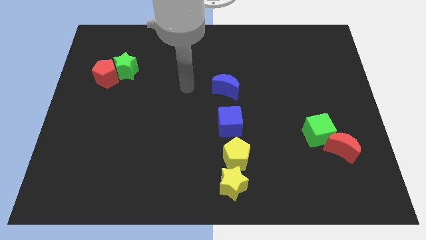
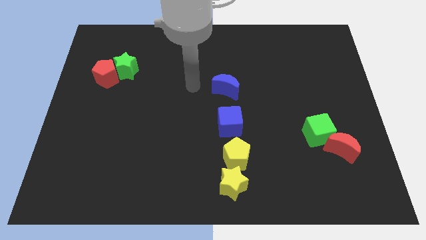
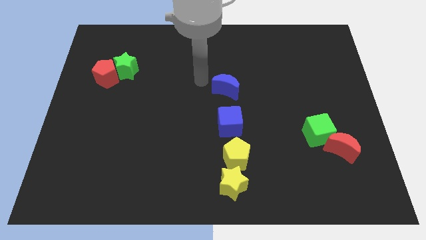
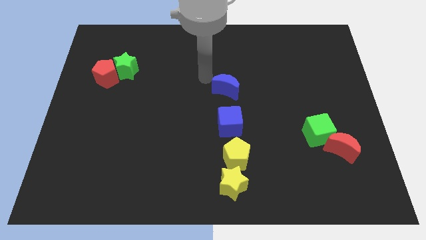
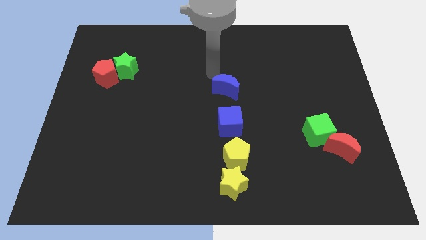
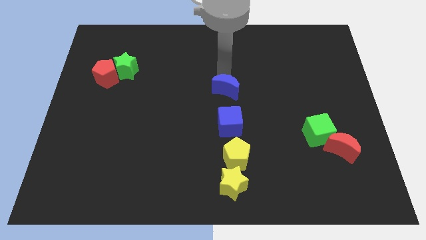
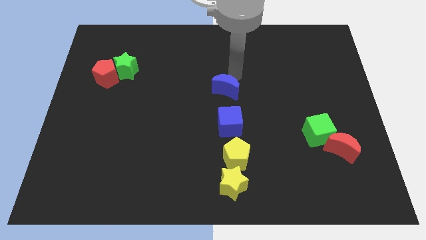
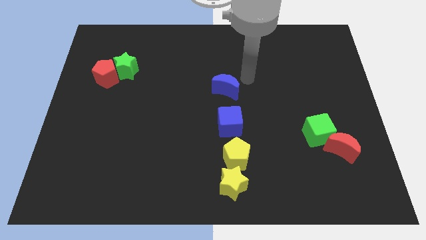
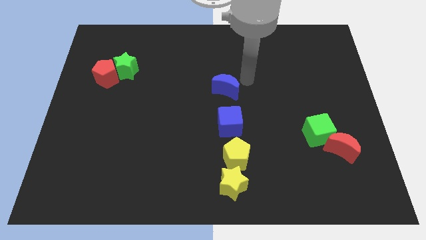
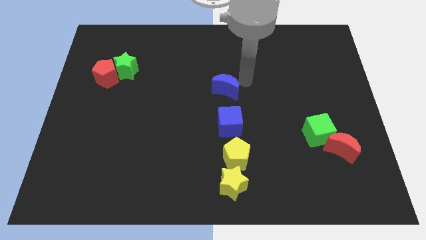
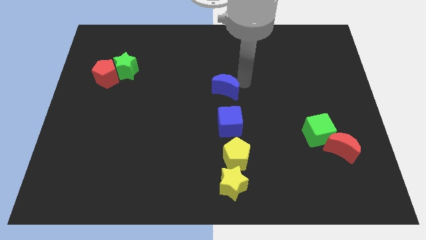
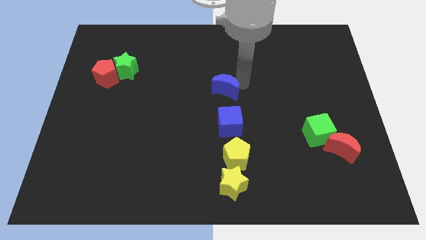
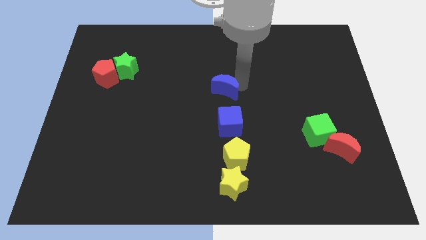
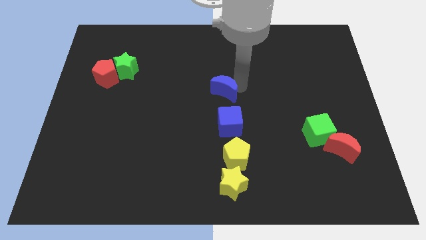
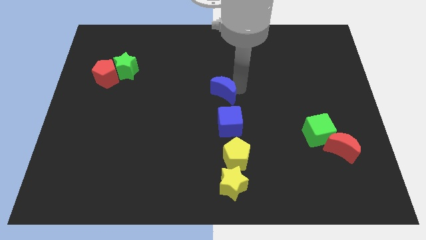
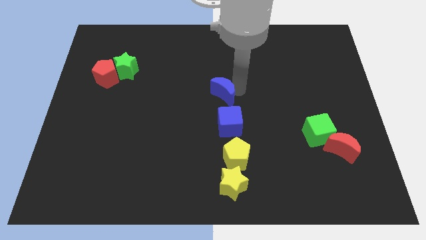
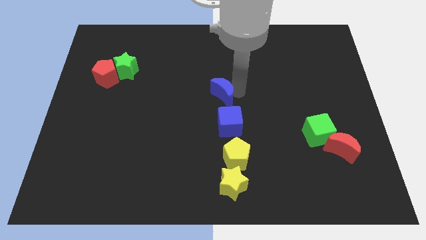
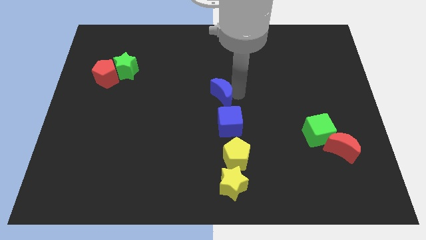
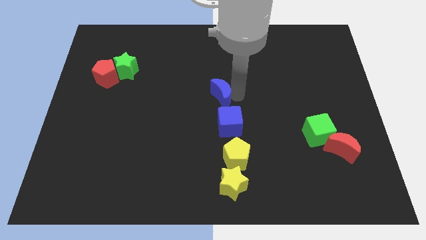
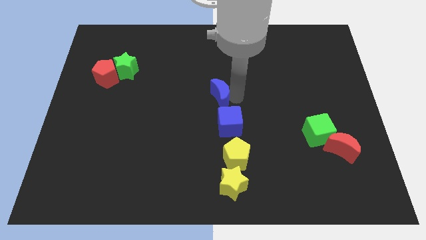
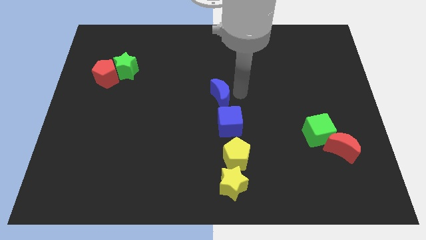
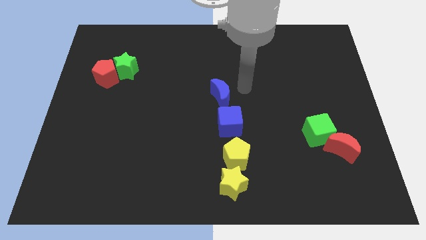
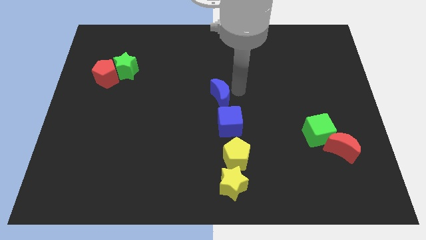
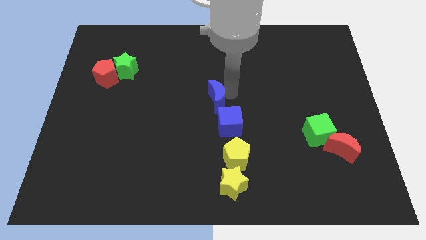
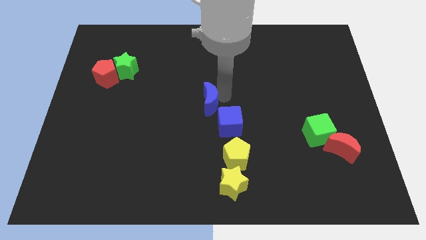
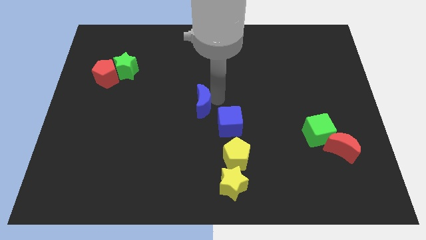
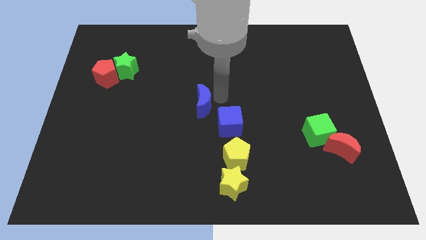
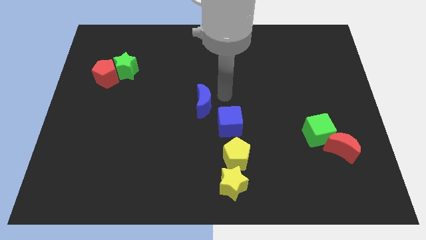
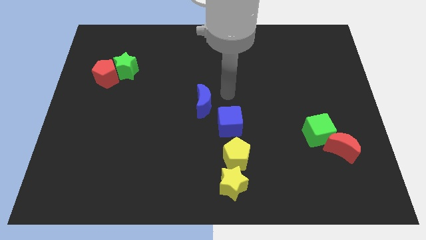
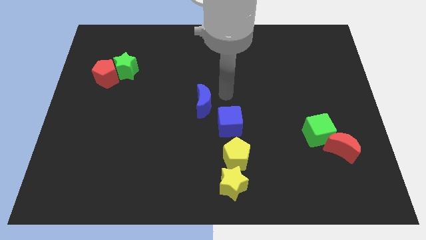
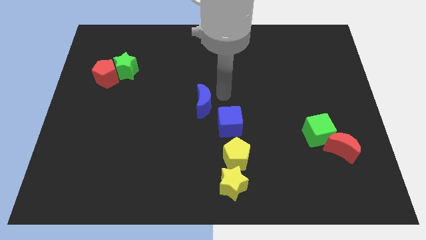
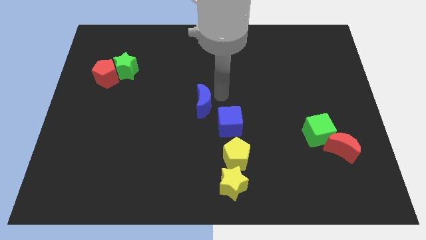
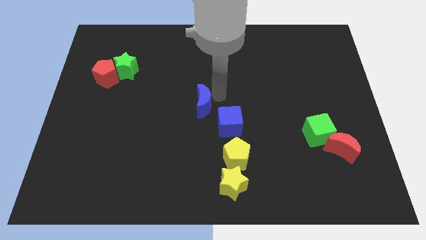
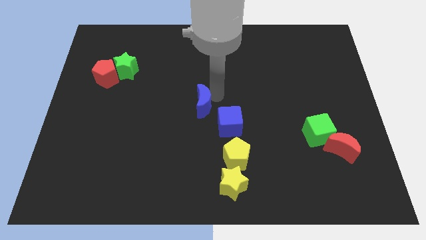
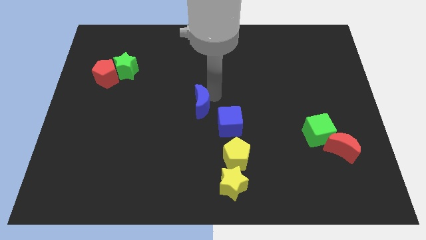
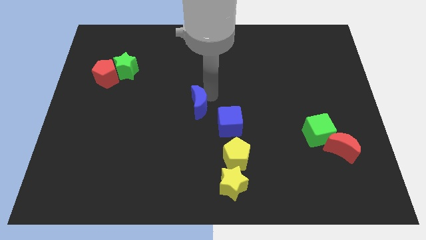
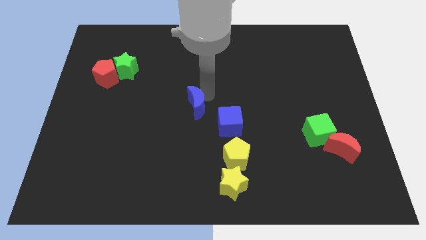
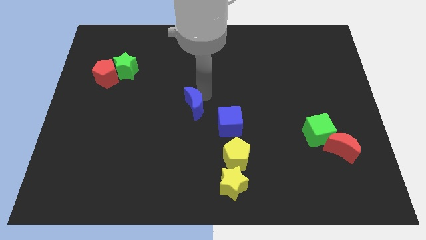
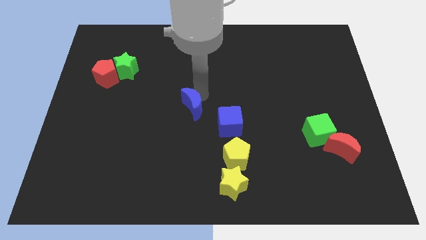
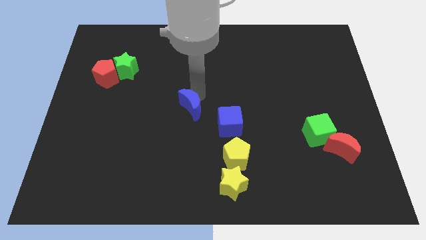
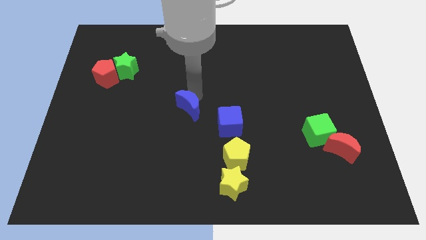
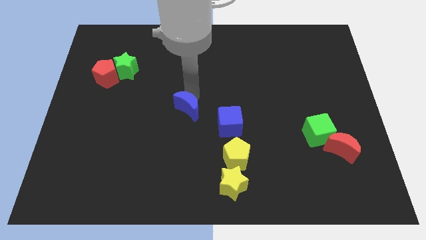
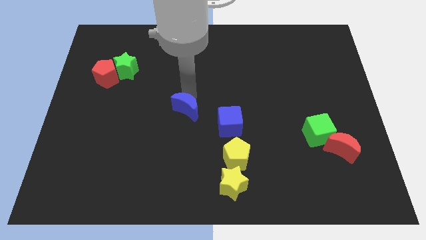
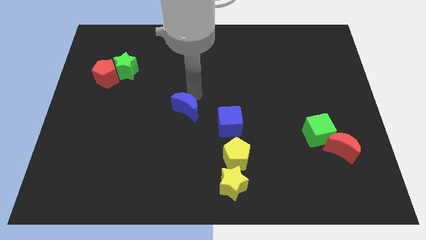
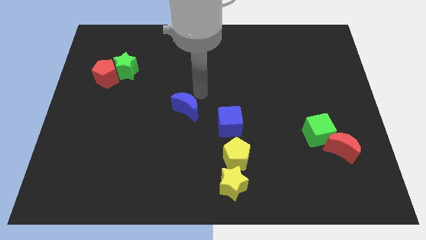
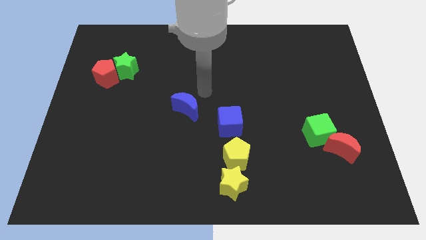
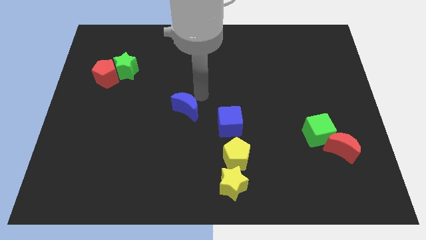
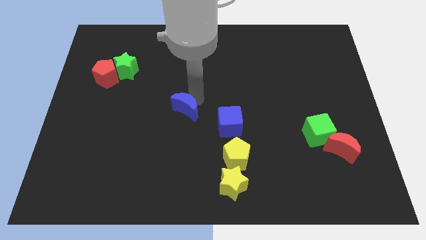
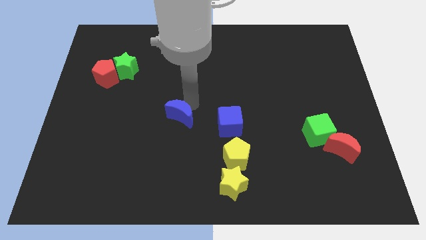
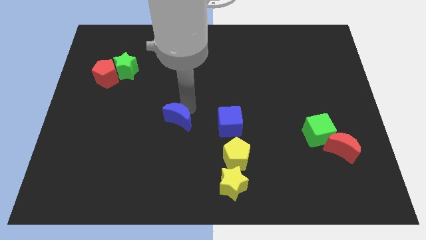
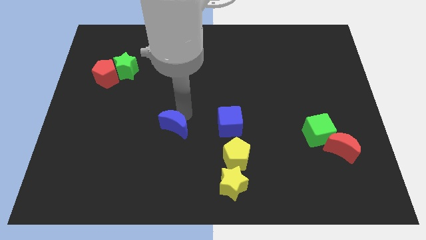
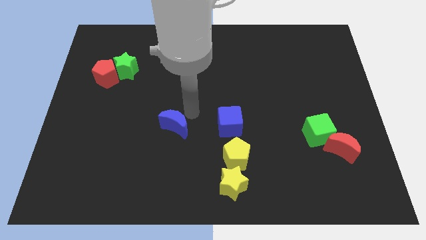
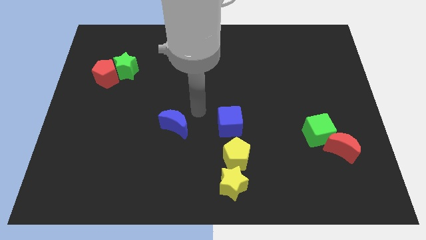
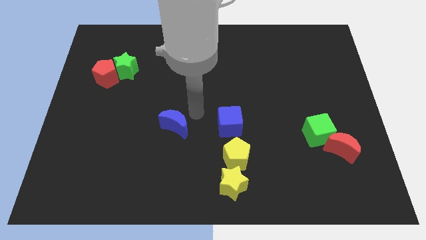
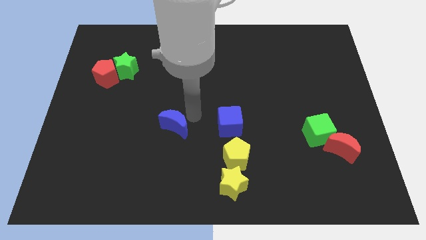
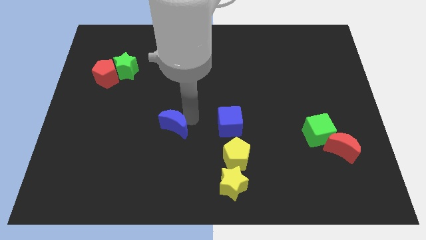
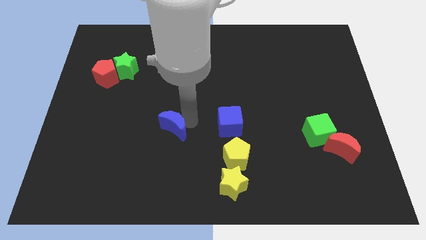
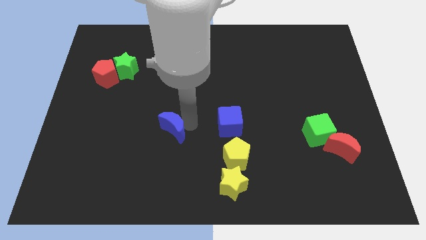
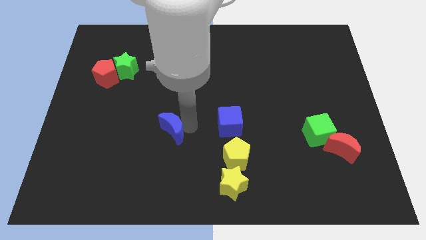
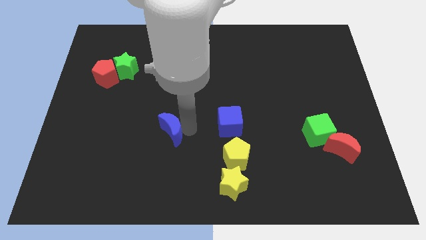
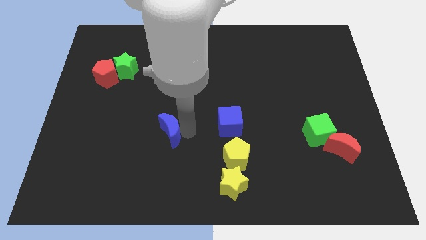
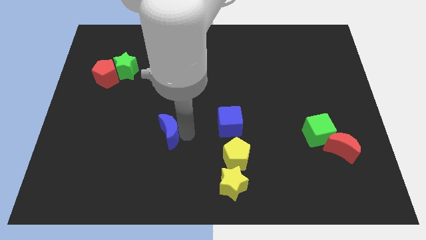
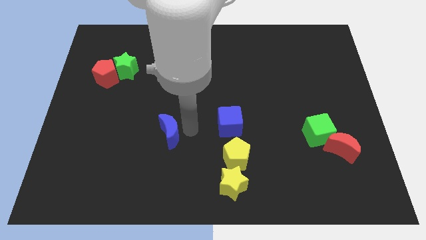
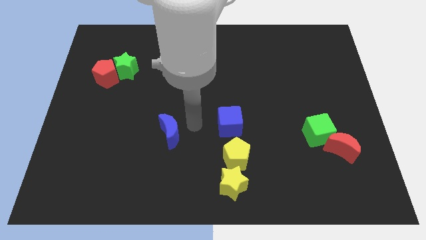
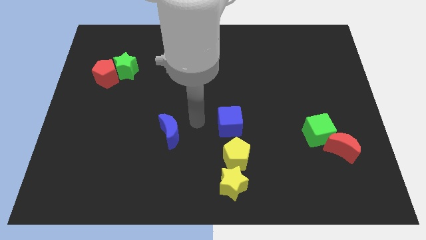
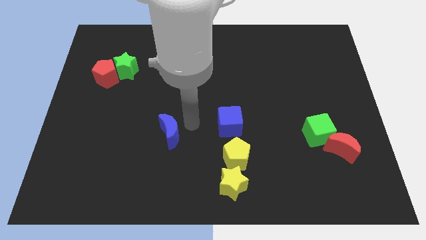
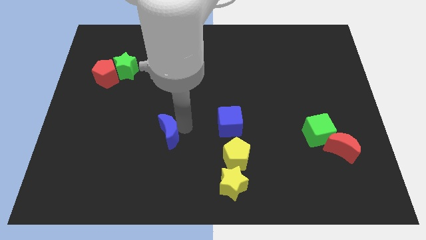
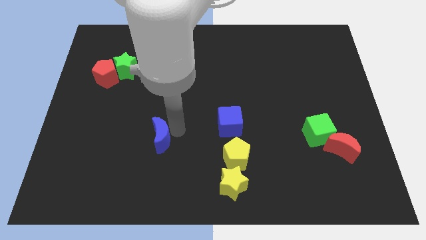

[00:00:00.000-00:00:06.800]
move the blue moon diagonally down and left

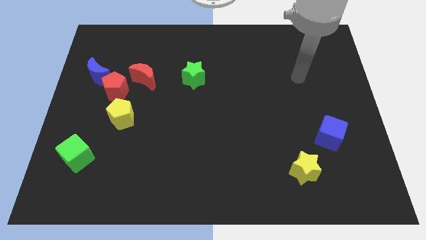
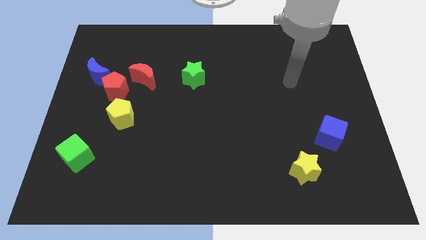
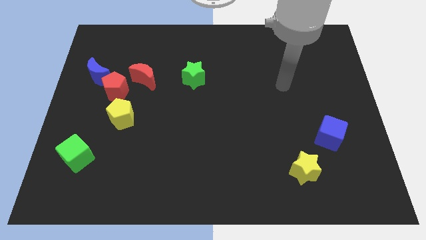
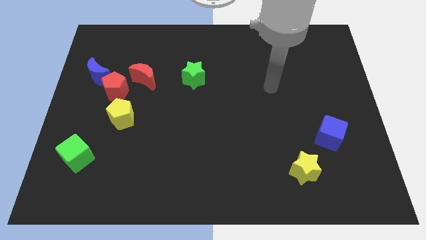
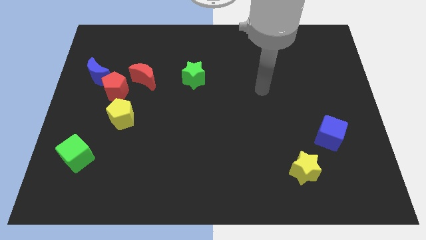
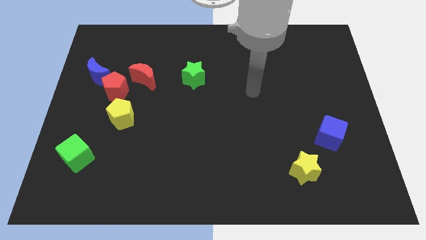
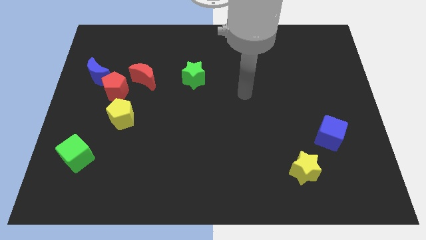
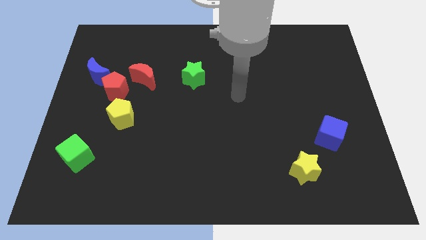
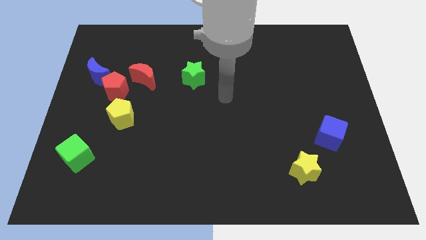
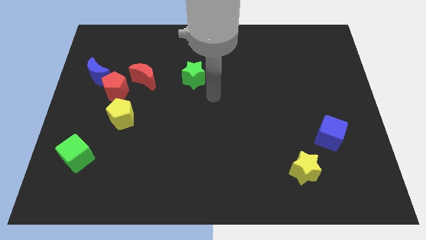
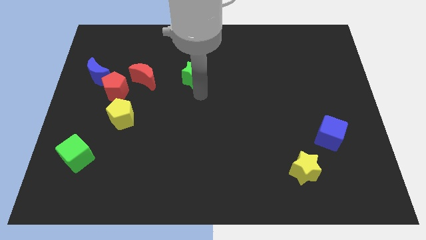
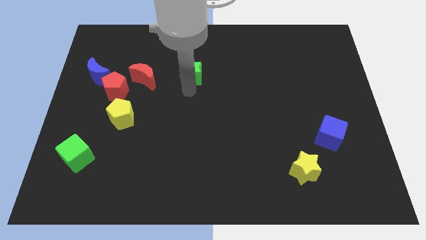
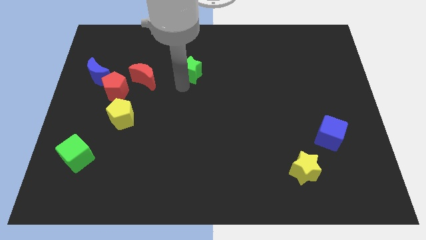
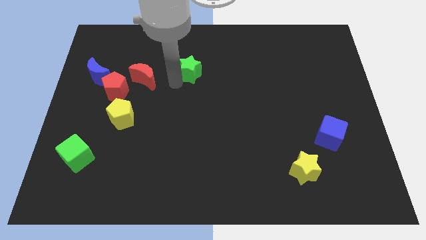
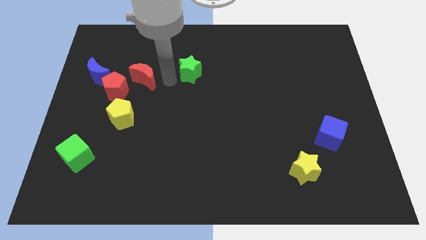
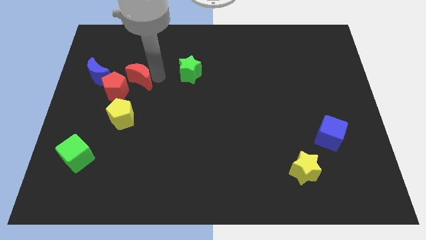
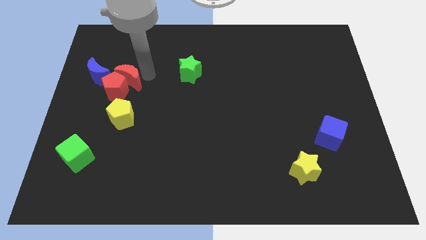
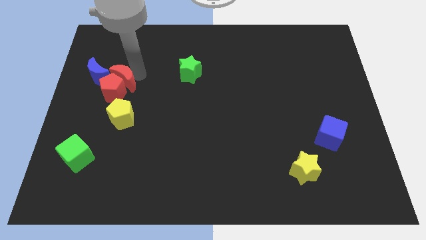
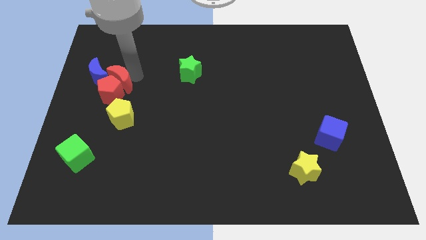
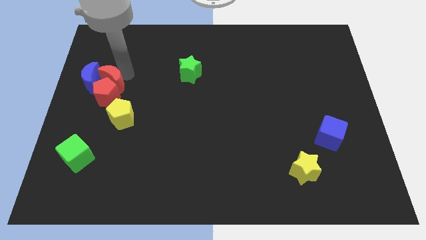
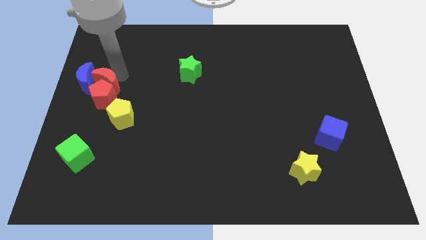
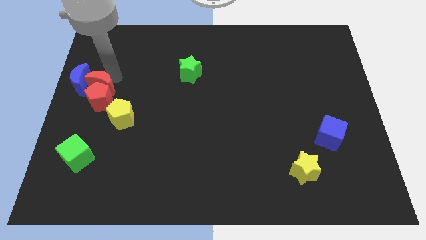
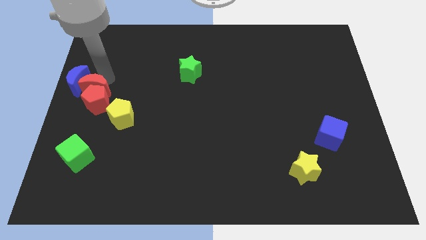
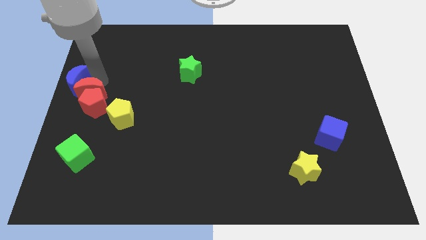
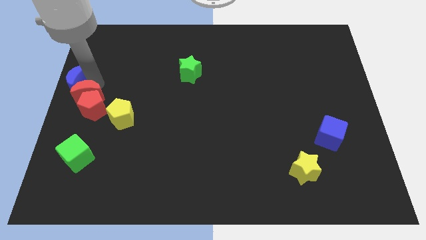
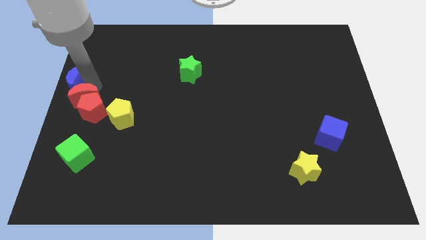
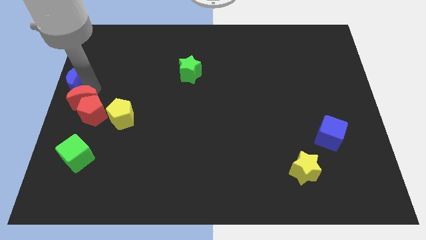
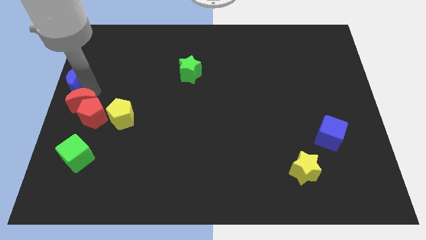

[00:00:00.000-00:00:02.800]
slide the red pentagon a bit down
